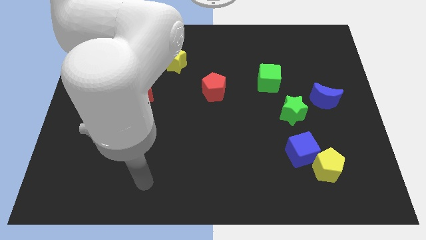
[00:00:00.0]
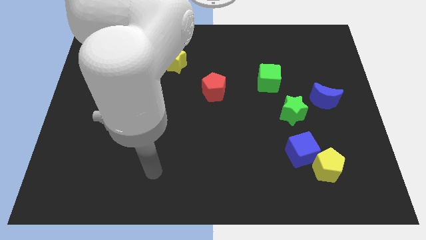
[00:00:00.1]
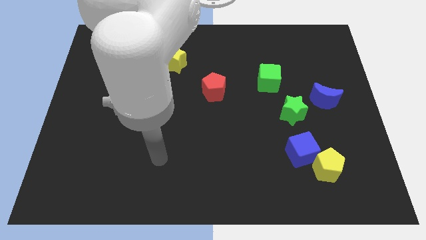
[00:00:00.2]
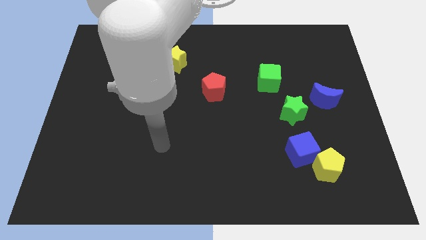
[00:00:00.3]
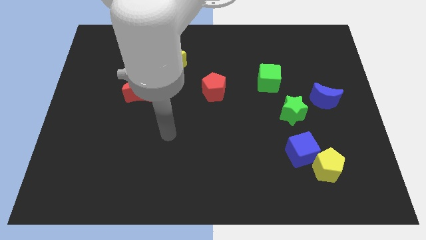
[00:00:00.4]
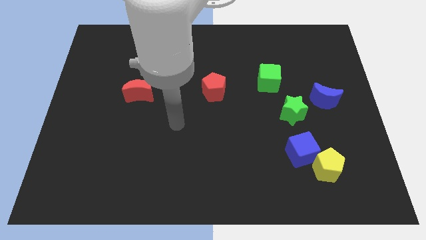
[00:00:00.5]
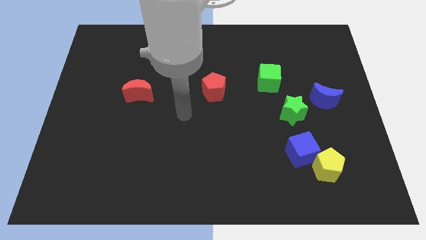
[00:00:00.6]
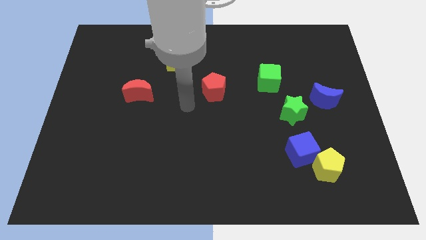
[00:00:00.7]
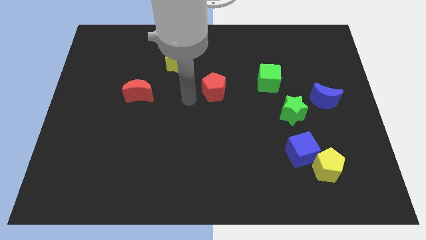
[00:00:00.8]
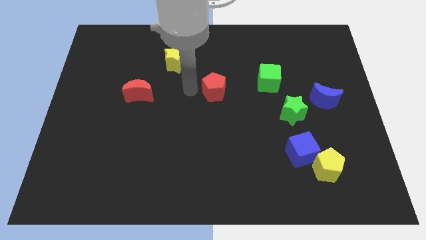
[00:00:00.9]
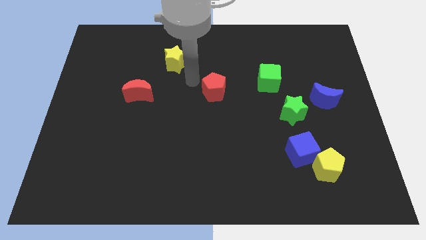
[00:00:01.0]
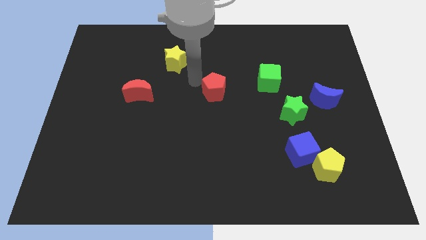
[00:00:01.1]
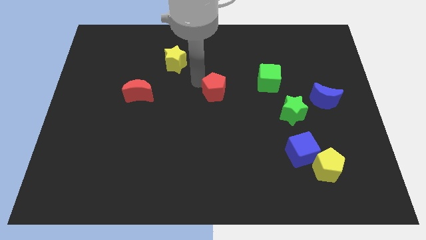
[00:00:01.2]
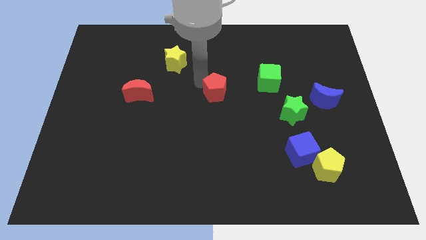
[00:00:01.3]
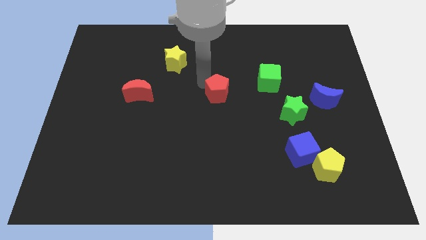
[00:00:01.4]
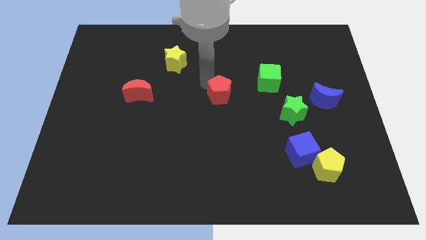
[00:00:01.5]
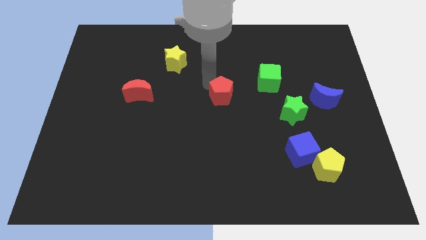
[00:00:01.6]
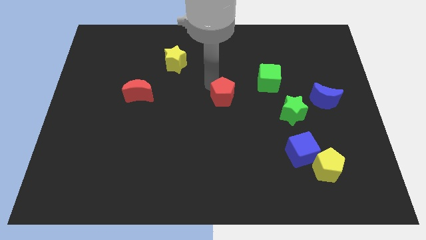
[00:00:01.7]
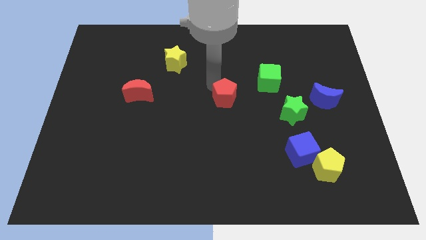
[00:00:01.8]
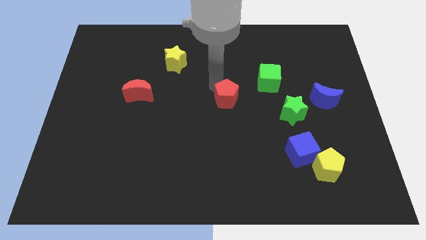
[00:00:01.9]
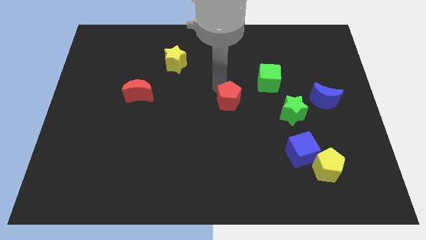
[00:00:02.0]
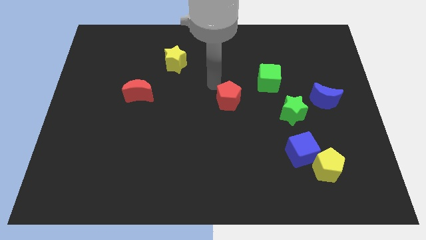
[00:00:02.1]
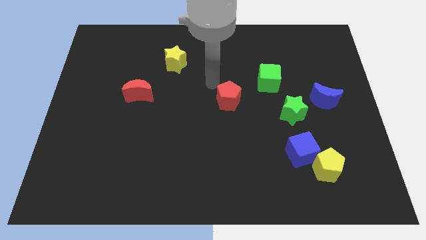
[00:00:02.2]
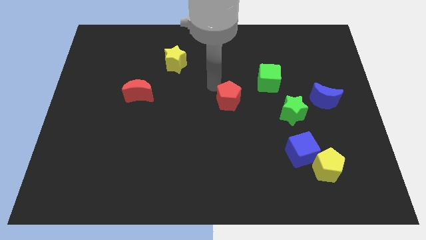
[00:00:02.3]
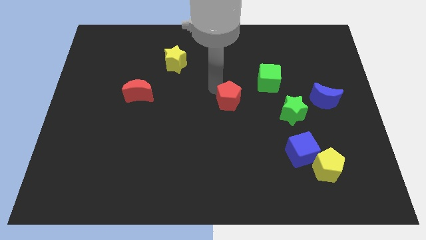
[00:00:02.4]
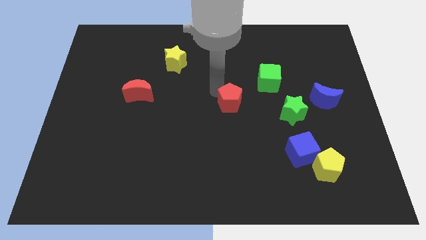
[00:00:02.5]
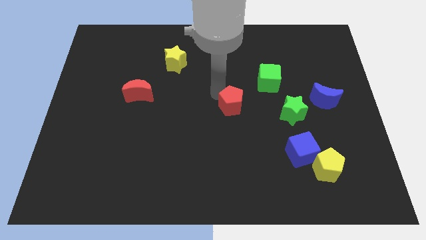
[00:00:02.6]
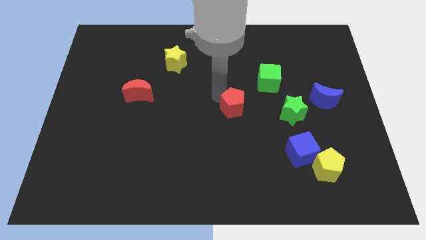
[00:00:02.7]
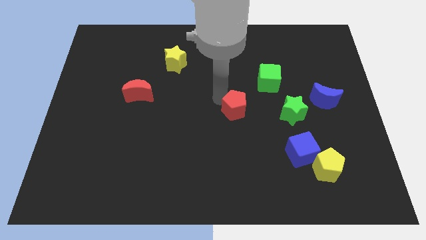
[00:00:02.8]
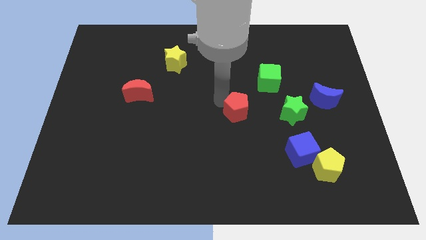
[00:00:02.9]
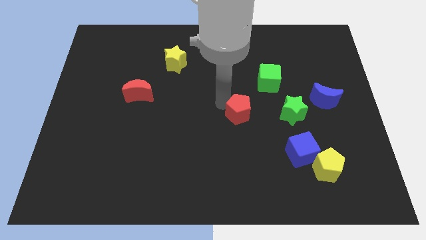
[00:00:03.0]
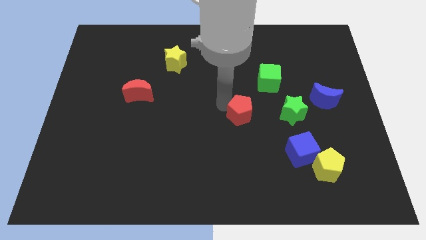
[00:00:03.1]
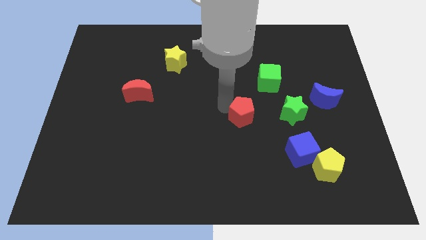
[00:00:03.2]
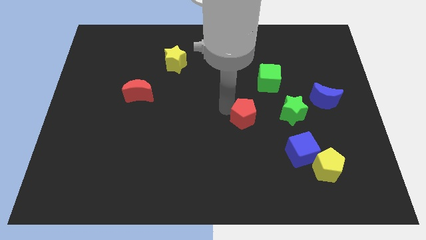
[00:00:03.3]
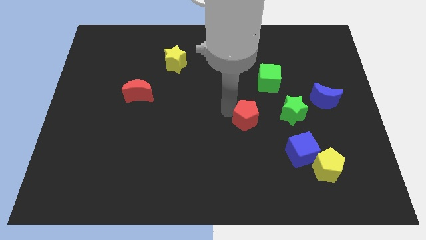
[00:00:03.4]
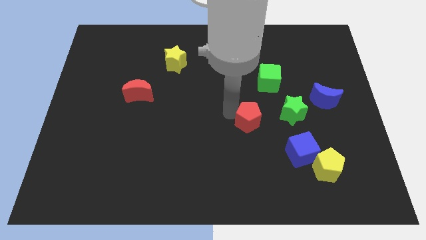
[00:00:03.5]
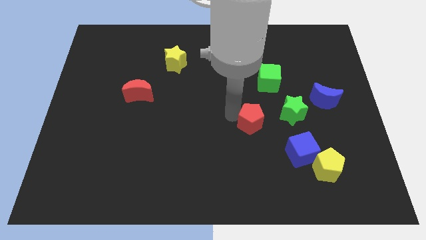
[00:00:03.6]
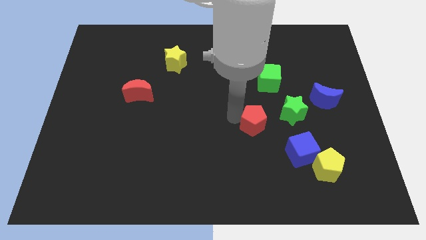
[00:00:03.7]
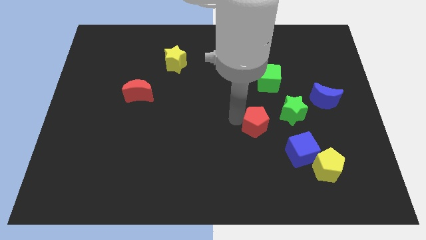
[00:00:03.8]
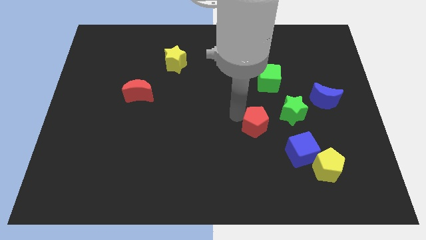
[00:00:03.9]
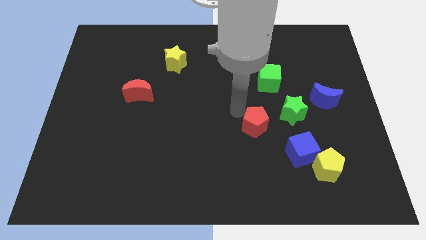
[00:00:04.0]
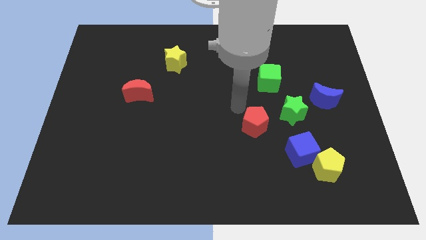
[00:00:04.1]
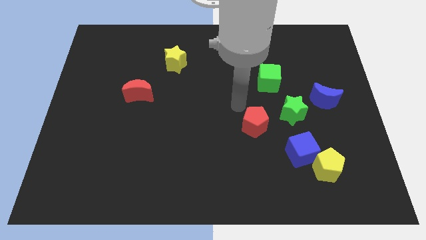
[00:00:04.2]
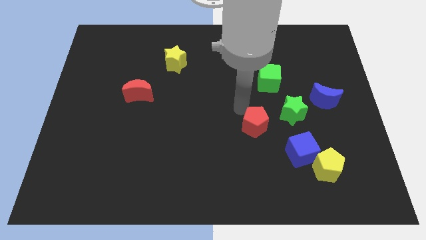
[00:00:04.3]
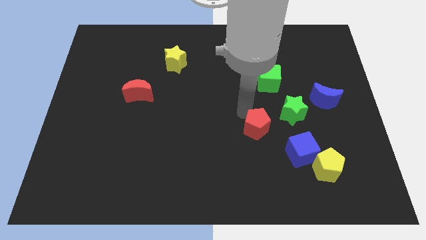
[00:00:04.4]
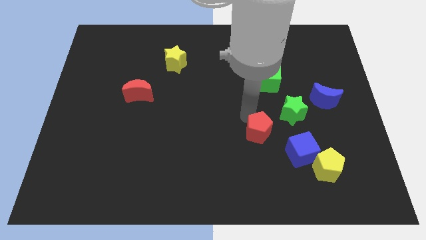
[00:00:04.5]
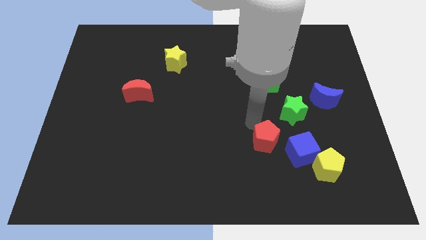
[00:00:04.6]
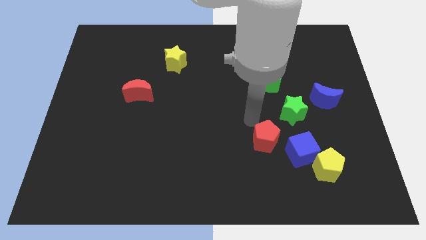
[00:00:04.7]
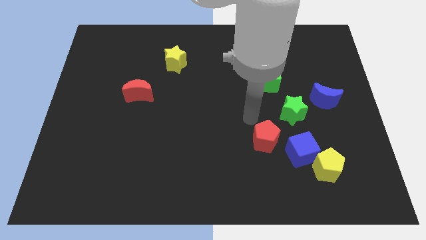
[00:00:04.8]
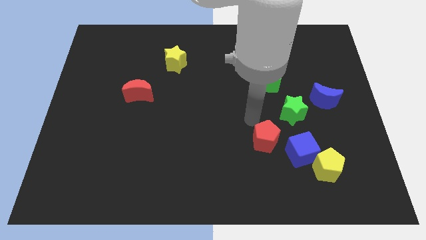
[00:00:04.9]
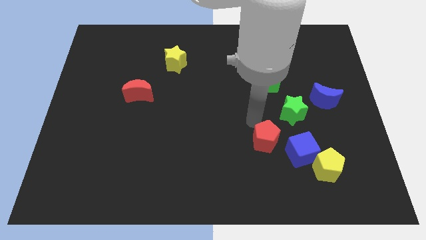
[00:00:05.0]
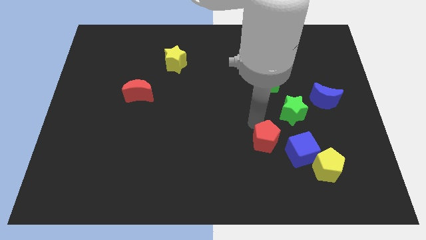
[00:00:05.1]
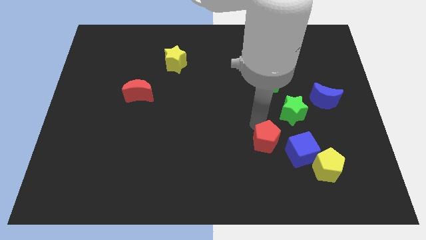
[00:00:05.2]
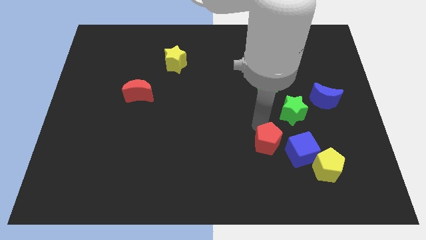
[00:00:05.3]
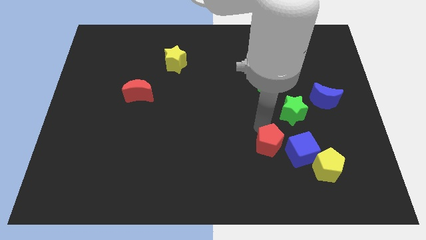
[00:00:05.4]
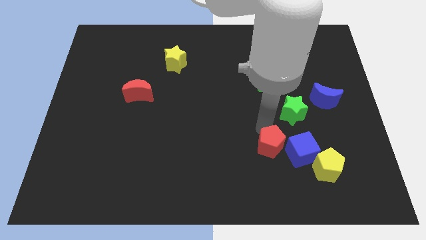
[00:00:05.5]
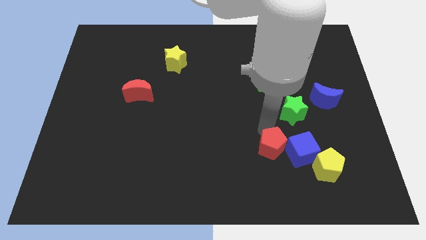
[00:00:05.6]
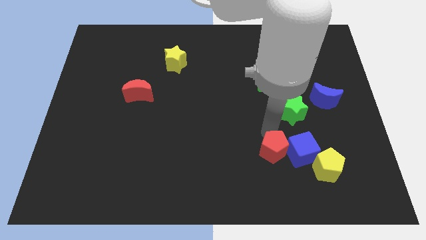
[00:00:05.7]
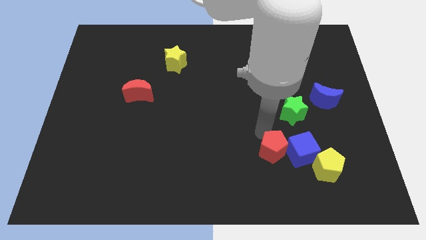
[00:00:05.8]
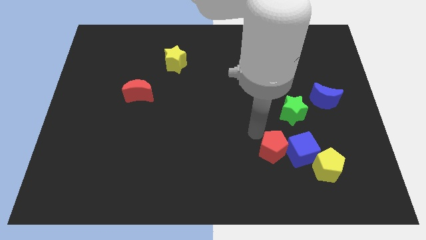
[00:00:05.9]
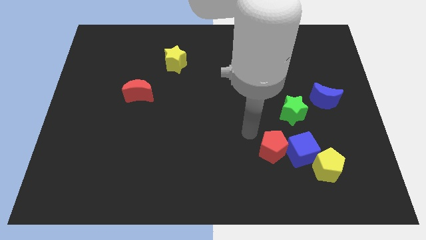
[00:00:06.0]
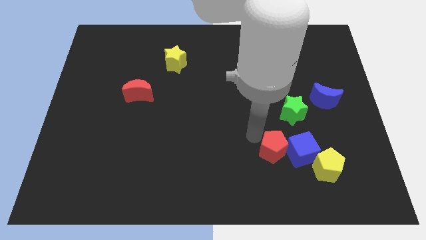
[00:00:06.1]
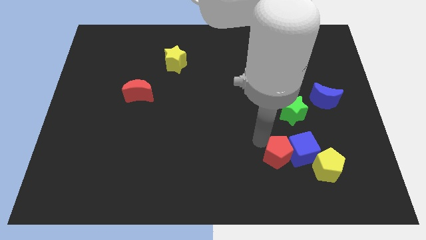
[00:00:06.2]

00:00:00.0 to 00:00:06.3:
slide the red pentagon below the green star

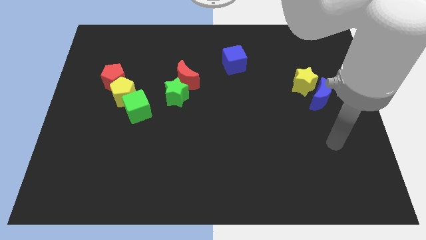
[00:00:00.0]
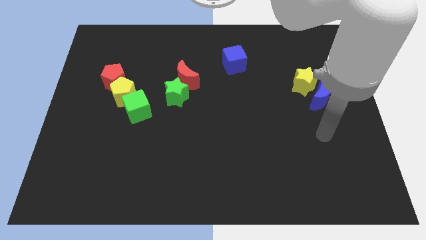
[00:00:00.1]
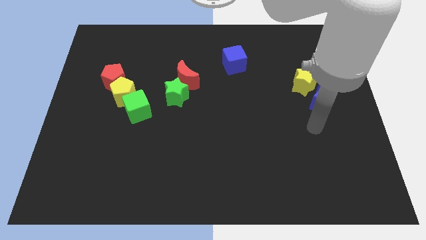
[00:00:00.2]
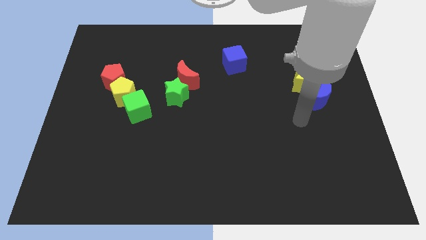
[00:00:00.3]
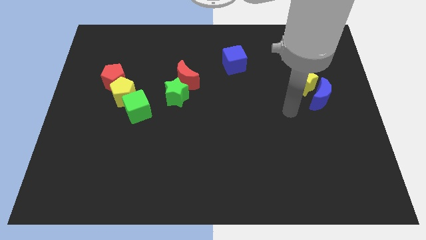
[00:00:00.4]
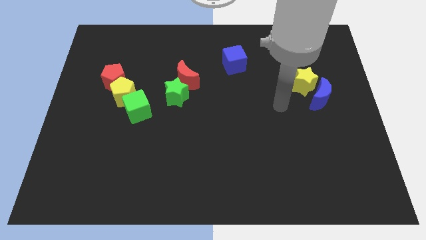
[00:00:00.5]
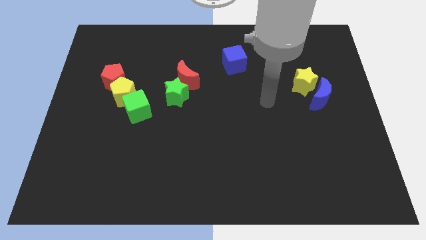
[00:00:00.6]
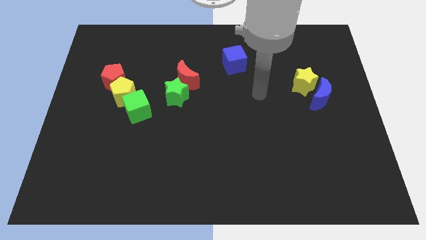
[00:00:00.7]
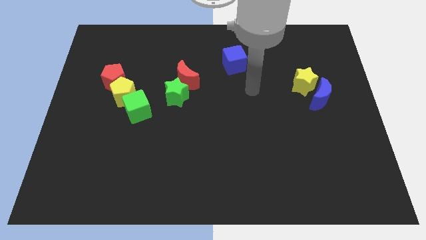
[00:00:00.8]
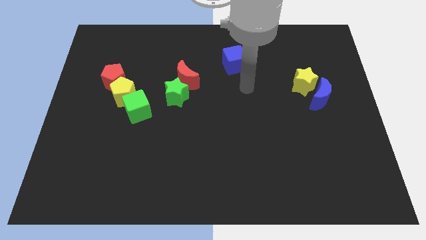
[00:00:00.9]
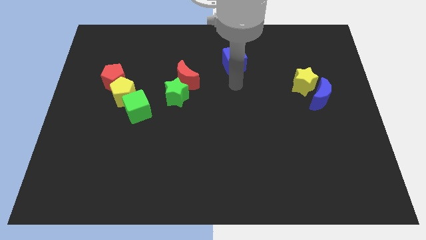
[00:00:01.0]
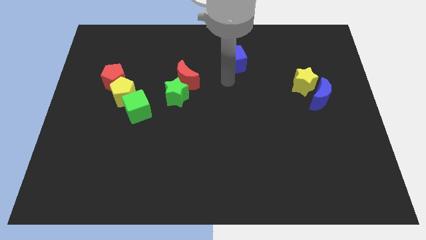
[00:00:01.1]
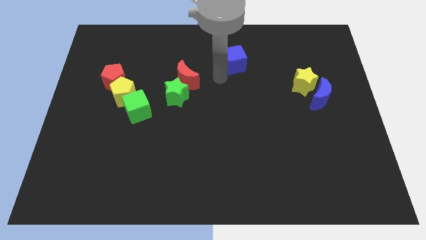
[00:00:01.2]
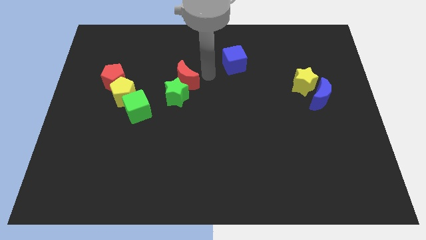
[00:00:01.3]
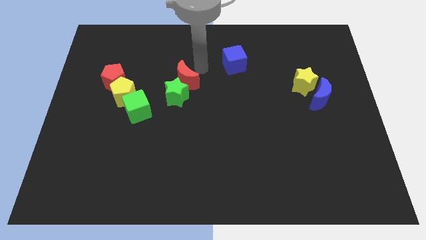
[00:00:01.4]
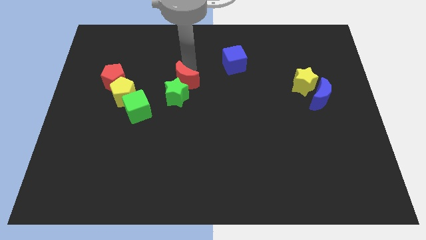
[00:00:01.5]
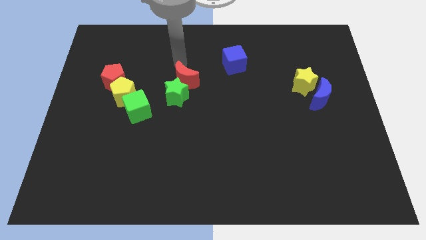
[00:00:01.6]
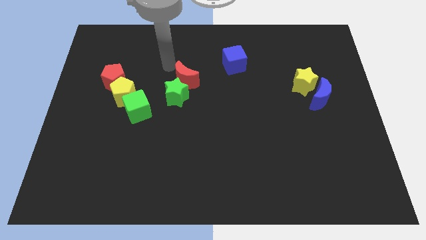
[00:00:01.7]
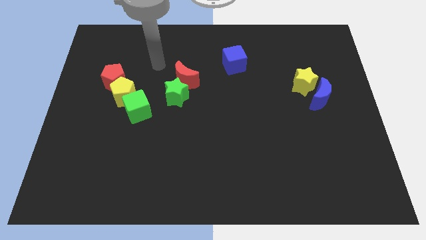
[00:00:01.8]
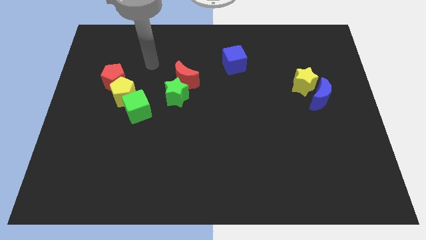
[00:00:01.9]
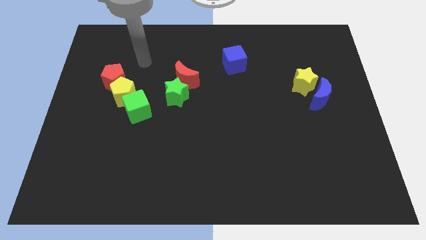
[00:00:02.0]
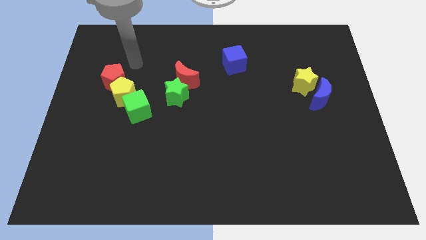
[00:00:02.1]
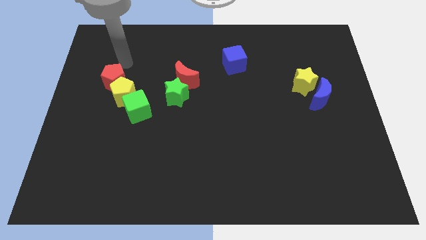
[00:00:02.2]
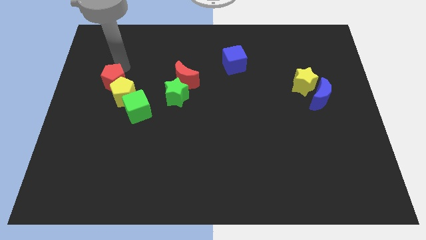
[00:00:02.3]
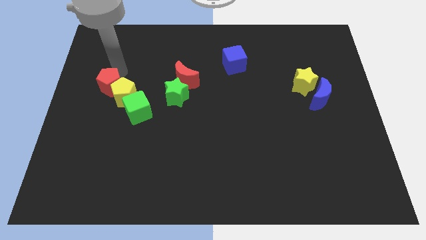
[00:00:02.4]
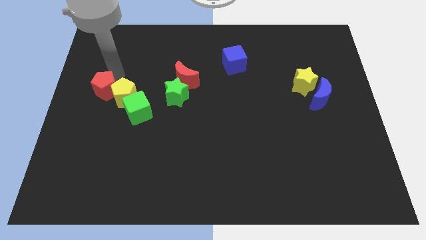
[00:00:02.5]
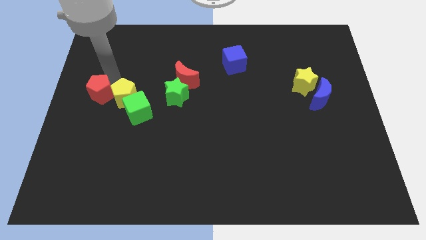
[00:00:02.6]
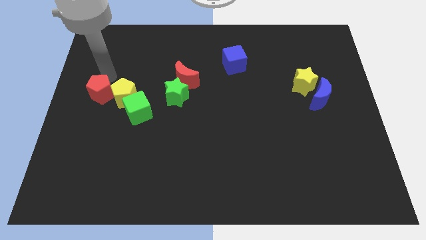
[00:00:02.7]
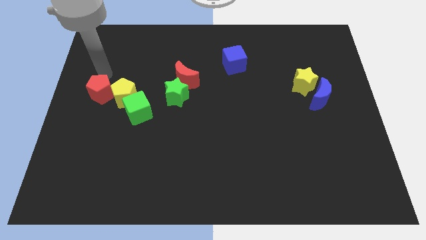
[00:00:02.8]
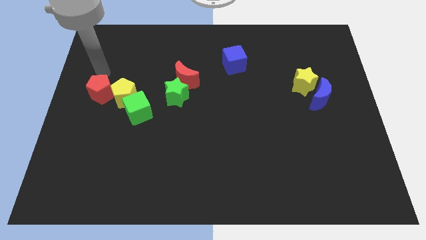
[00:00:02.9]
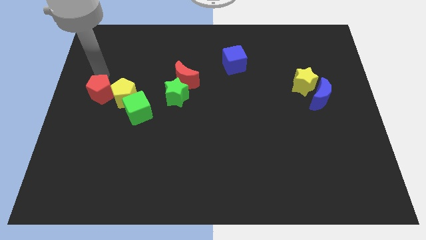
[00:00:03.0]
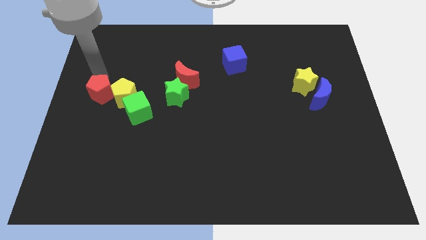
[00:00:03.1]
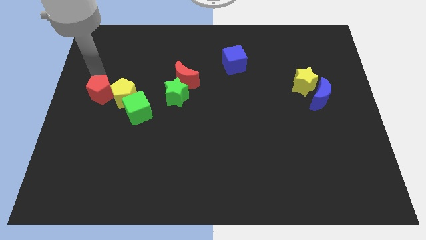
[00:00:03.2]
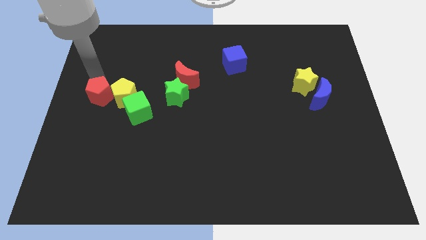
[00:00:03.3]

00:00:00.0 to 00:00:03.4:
move the red pentagon diagonally down and to the left of the yellow pentagon
